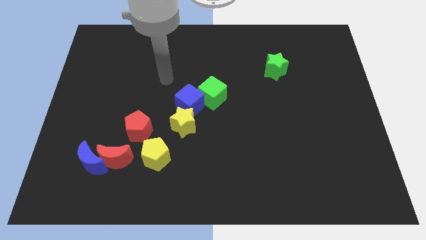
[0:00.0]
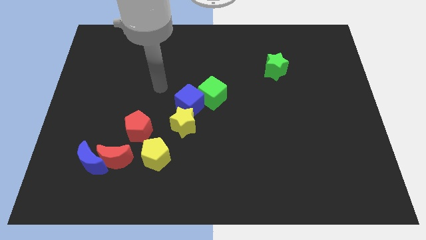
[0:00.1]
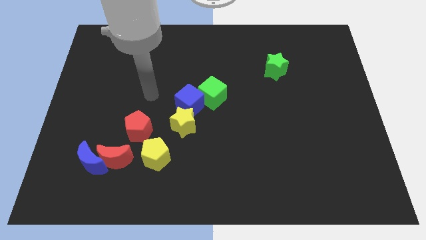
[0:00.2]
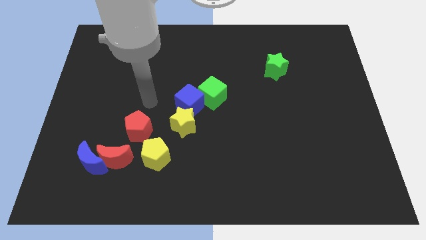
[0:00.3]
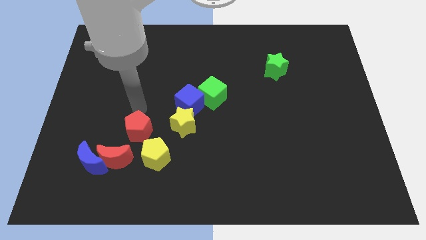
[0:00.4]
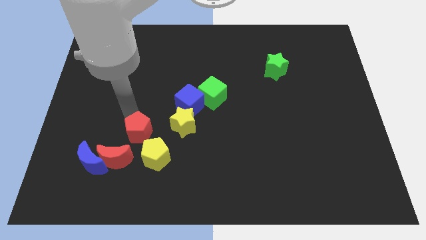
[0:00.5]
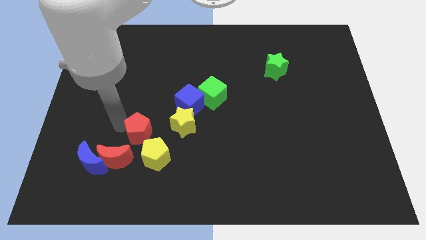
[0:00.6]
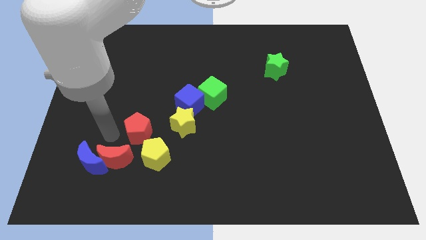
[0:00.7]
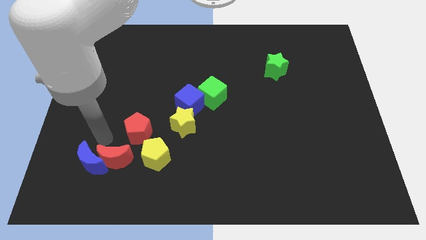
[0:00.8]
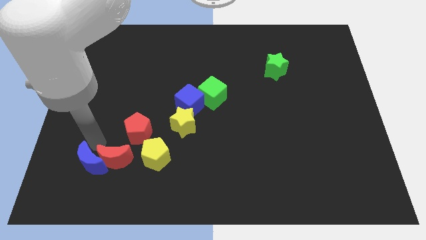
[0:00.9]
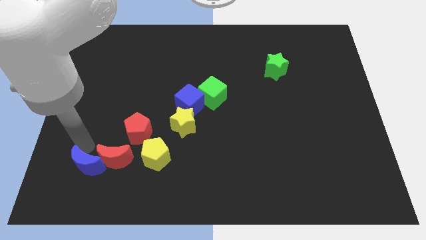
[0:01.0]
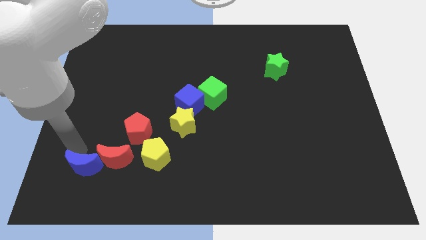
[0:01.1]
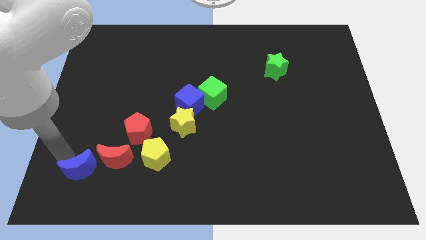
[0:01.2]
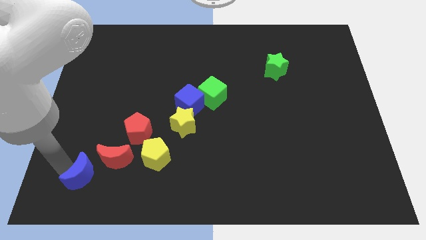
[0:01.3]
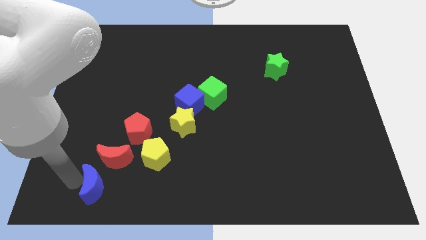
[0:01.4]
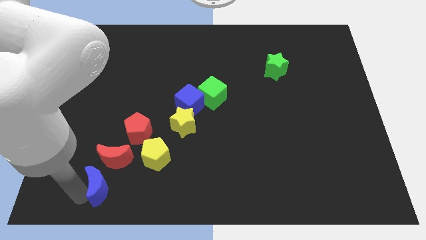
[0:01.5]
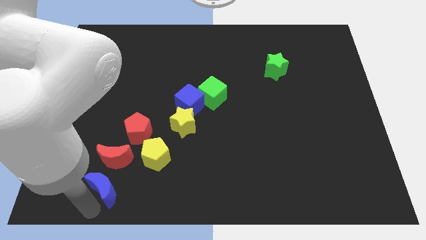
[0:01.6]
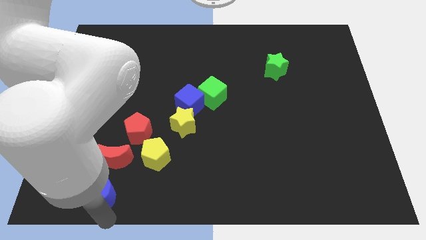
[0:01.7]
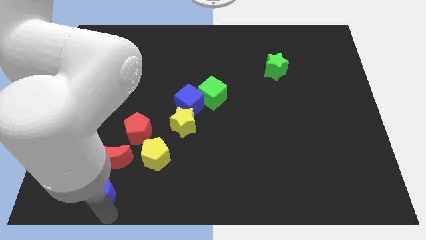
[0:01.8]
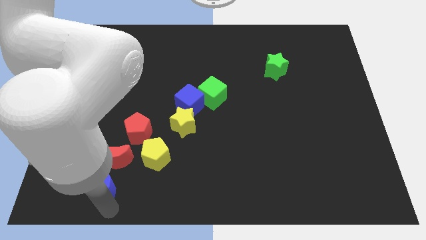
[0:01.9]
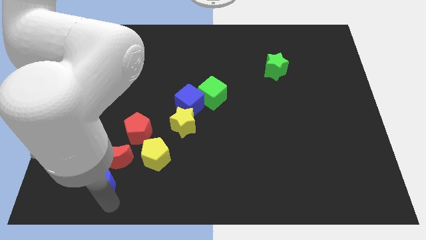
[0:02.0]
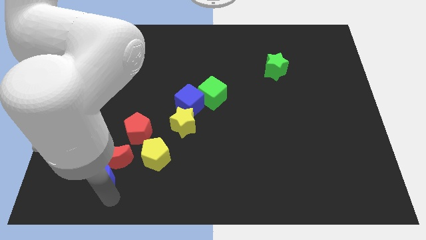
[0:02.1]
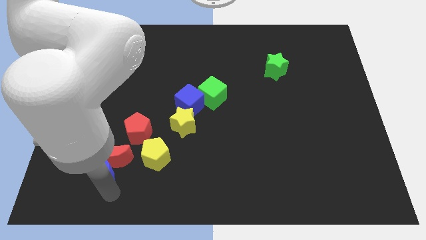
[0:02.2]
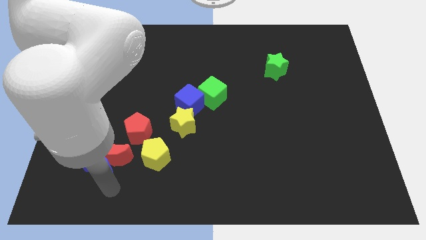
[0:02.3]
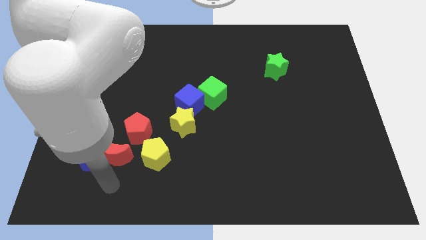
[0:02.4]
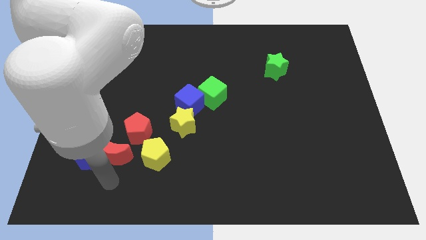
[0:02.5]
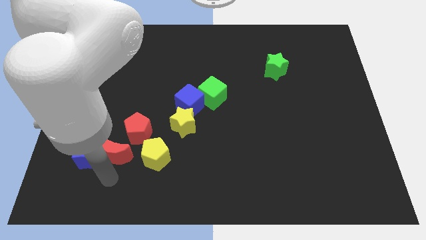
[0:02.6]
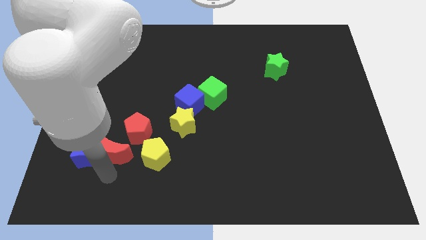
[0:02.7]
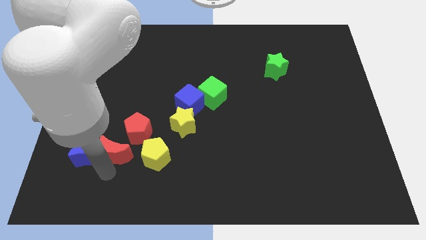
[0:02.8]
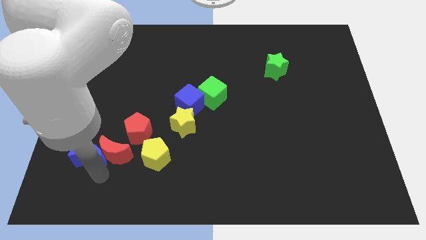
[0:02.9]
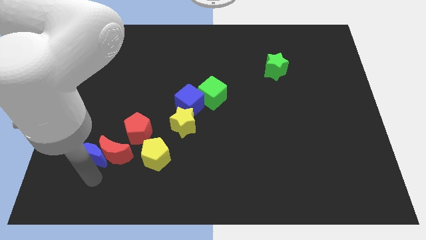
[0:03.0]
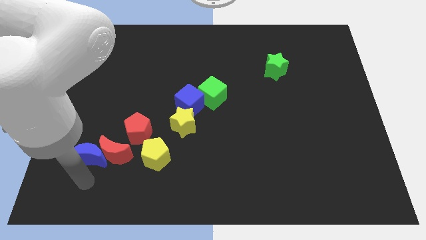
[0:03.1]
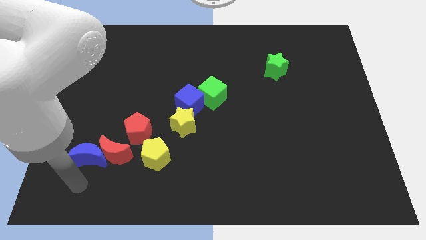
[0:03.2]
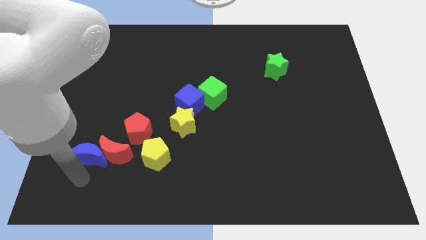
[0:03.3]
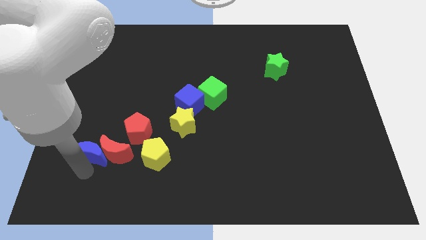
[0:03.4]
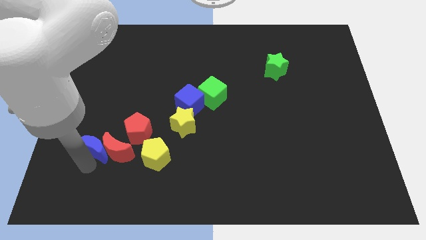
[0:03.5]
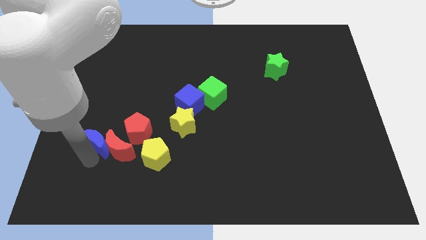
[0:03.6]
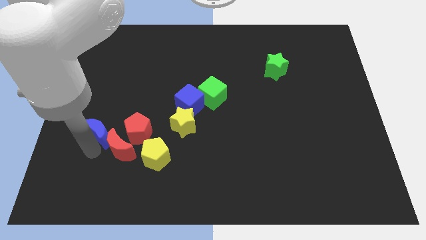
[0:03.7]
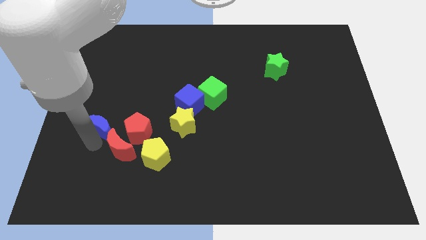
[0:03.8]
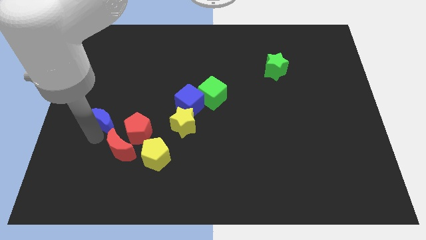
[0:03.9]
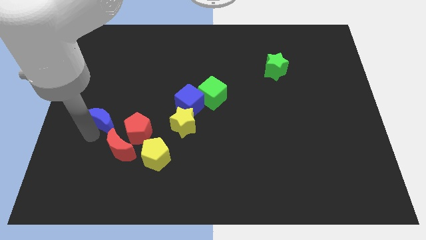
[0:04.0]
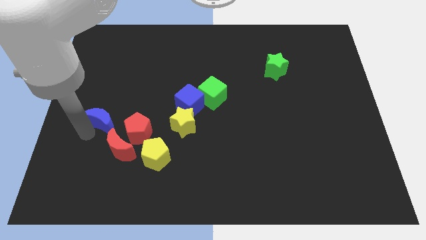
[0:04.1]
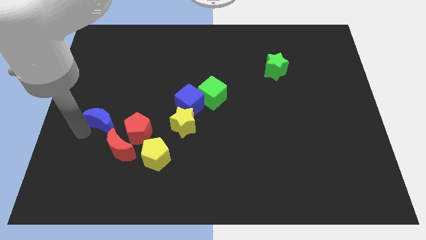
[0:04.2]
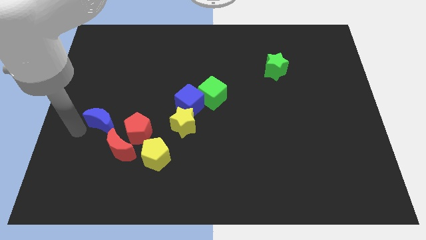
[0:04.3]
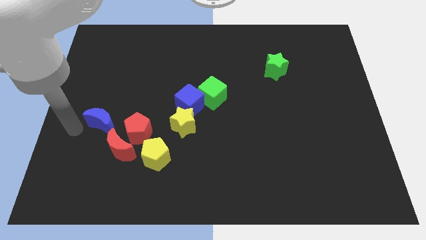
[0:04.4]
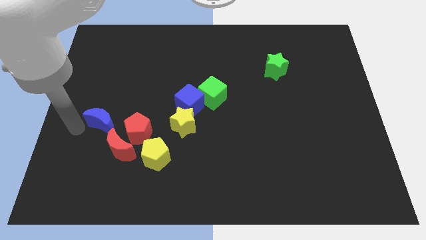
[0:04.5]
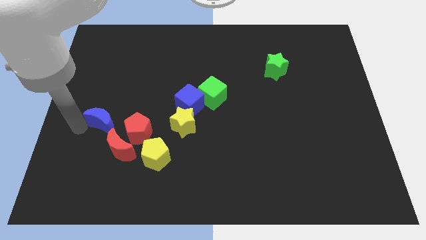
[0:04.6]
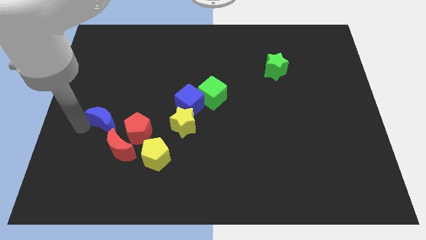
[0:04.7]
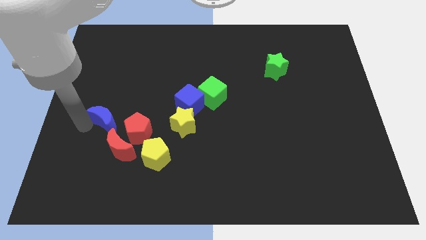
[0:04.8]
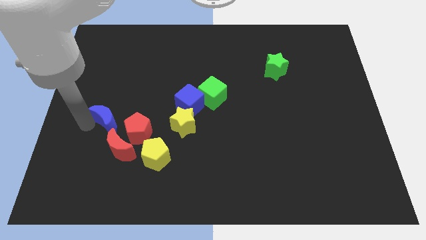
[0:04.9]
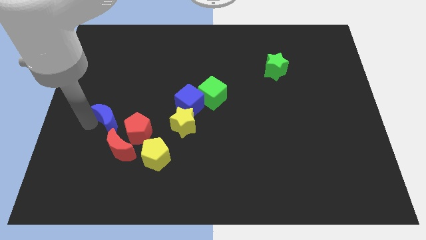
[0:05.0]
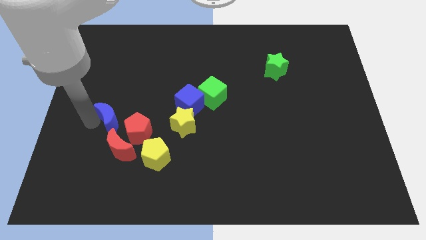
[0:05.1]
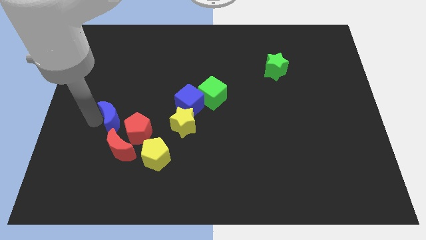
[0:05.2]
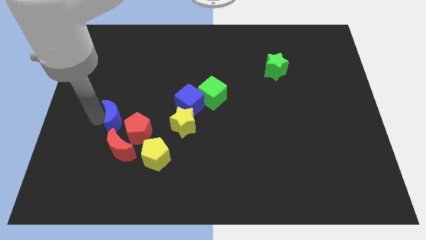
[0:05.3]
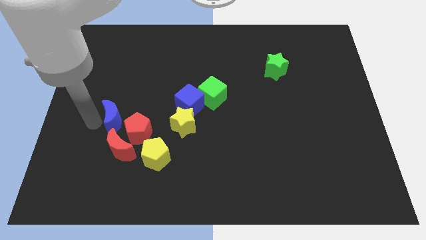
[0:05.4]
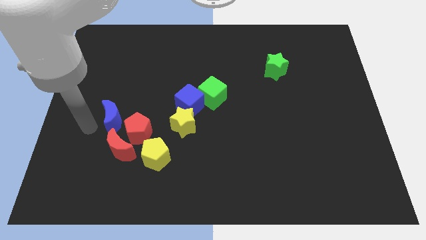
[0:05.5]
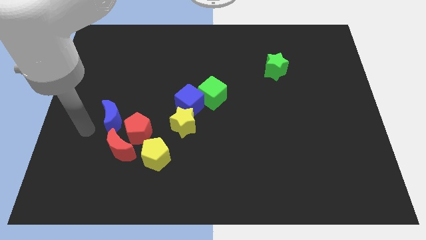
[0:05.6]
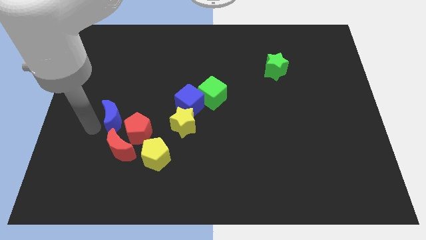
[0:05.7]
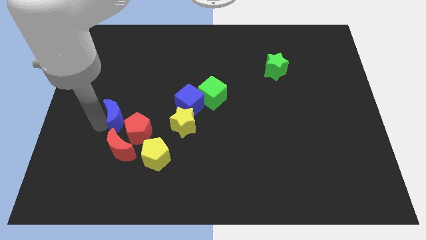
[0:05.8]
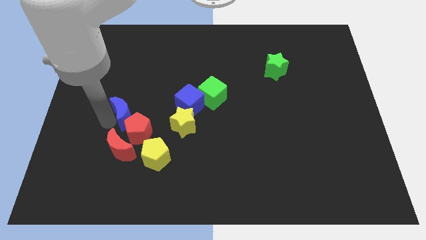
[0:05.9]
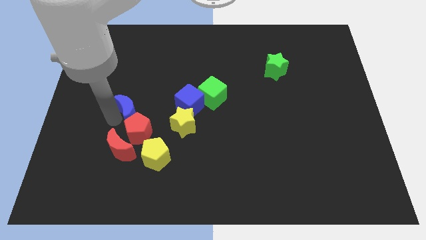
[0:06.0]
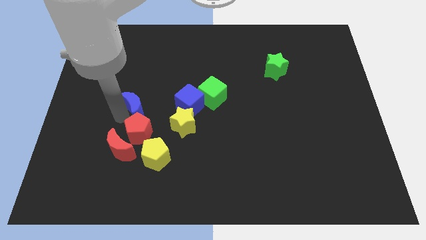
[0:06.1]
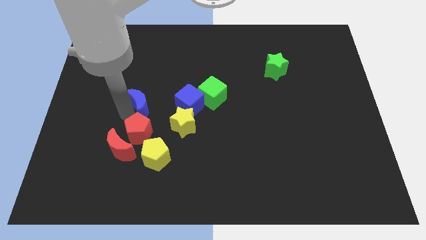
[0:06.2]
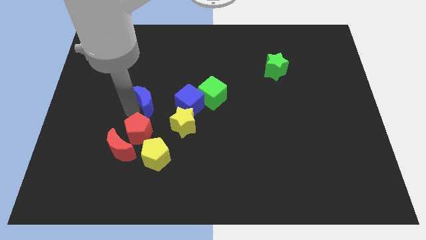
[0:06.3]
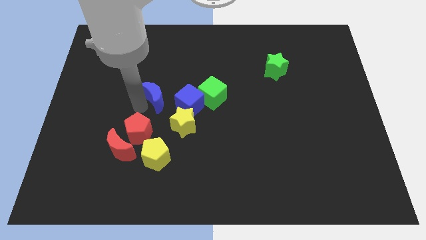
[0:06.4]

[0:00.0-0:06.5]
slide the blue moon up and right

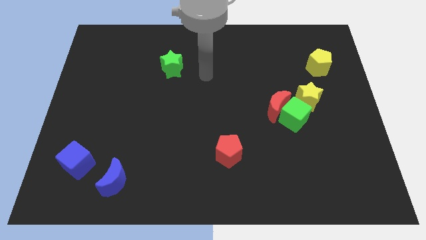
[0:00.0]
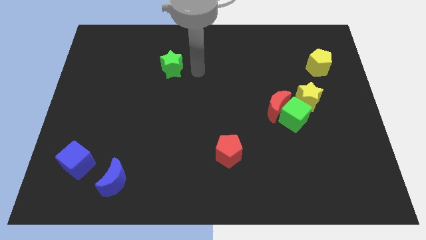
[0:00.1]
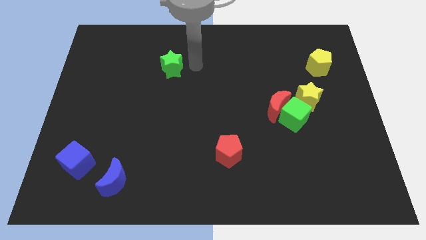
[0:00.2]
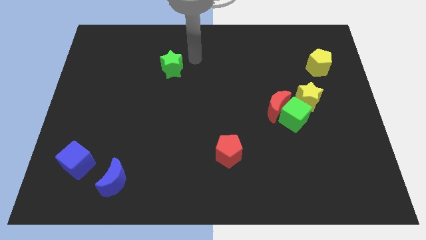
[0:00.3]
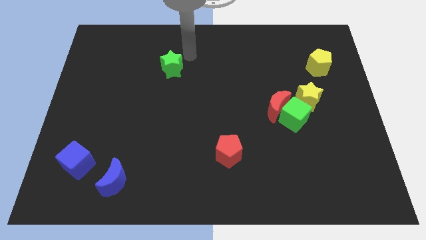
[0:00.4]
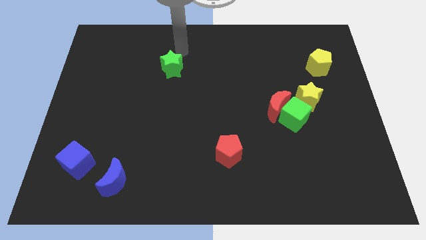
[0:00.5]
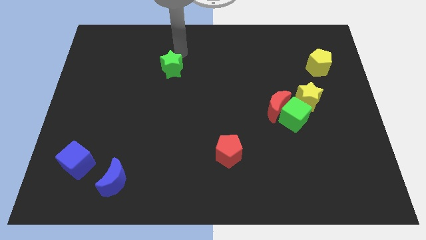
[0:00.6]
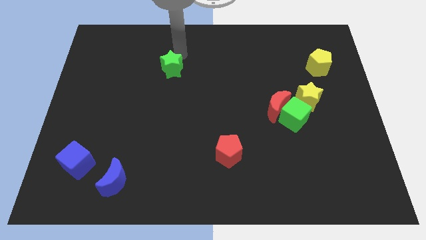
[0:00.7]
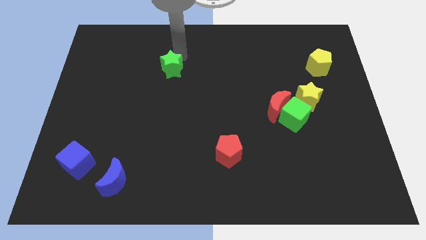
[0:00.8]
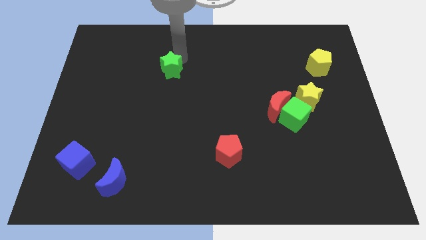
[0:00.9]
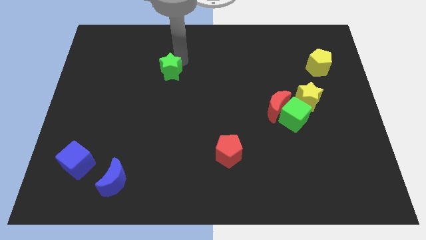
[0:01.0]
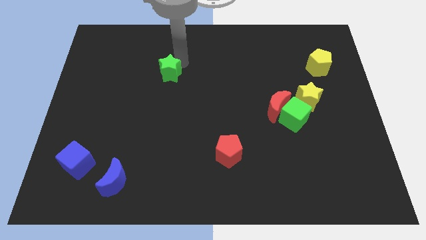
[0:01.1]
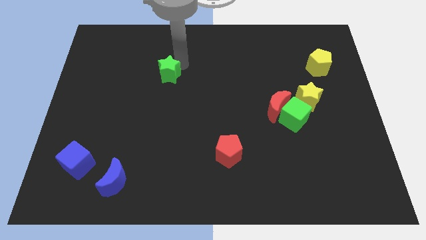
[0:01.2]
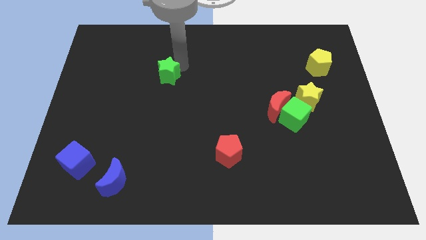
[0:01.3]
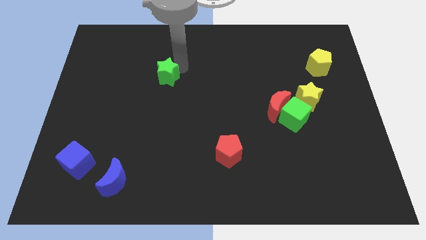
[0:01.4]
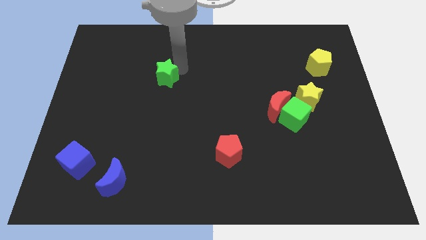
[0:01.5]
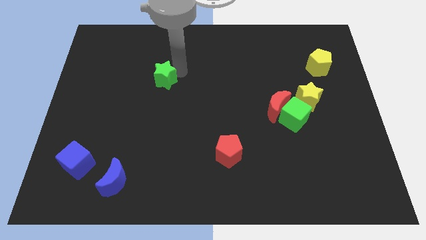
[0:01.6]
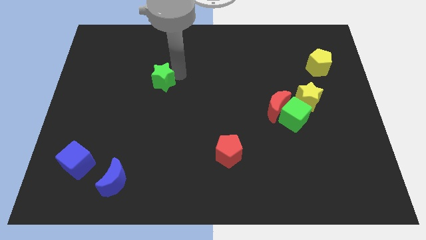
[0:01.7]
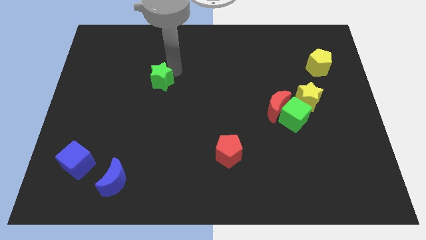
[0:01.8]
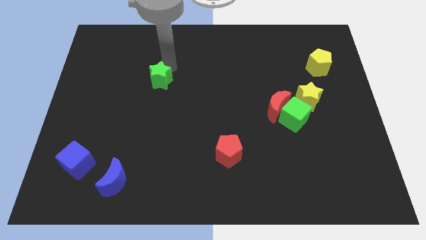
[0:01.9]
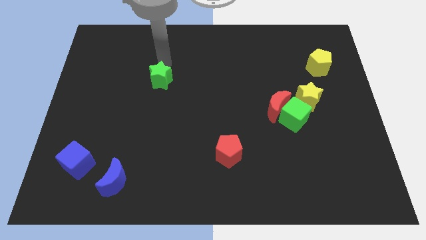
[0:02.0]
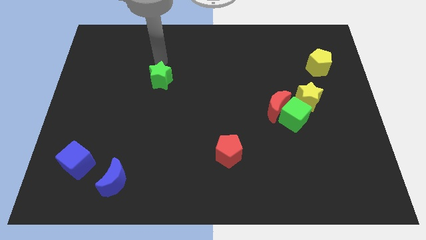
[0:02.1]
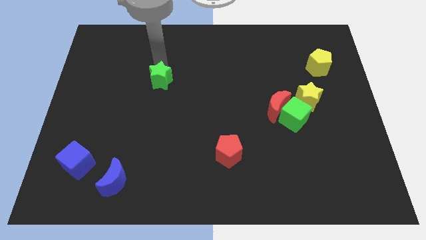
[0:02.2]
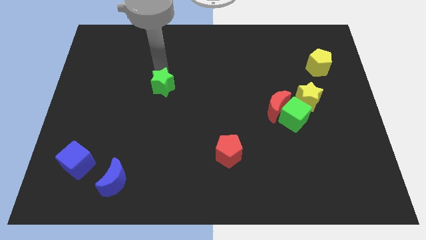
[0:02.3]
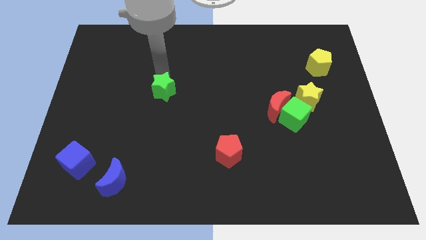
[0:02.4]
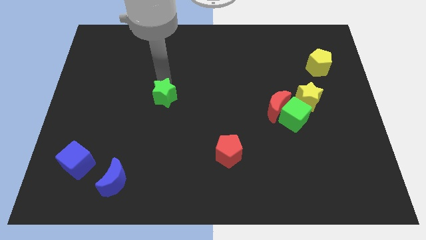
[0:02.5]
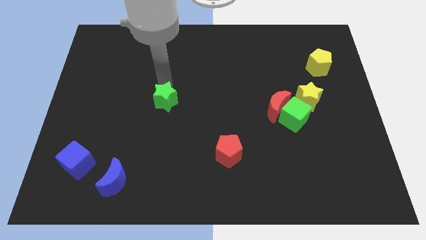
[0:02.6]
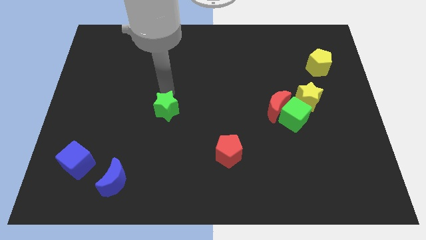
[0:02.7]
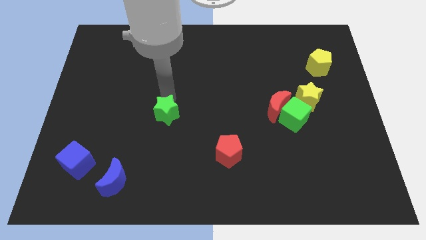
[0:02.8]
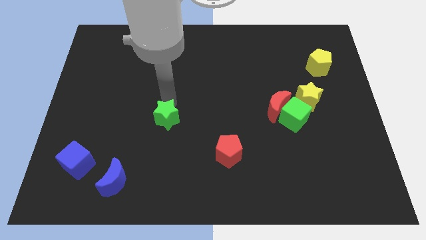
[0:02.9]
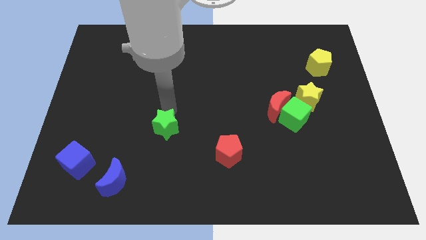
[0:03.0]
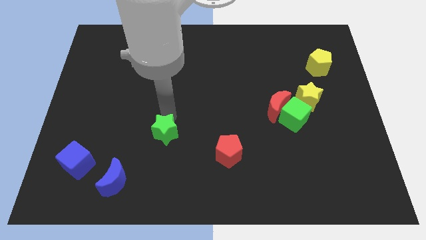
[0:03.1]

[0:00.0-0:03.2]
move the green star down
